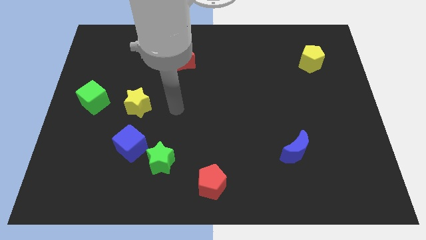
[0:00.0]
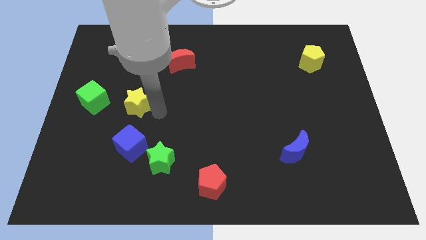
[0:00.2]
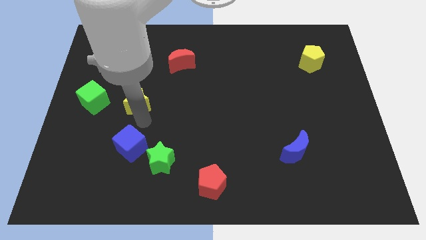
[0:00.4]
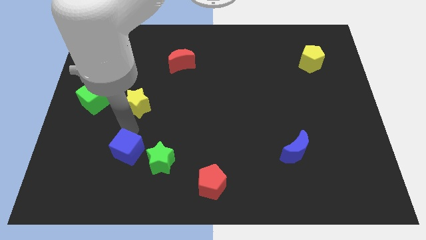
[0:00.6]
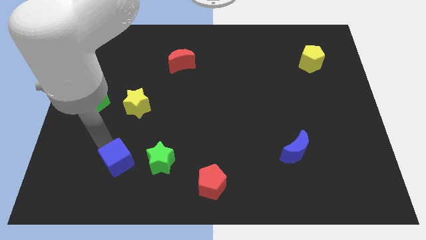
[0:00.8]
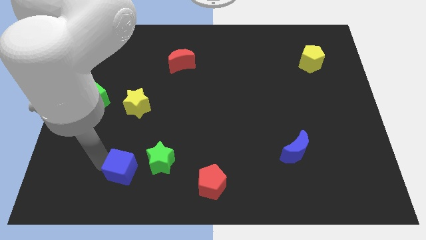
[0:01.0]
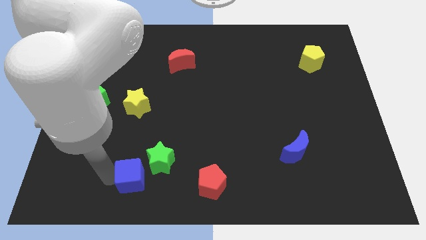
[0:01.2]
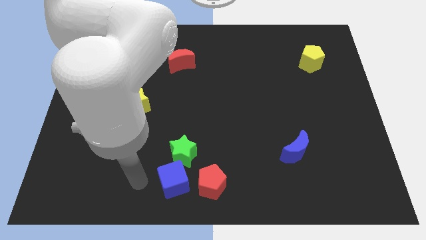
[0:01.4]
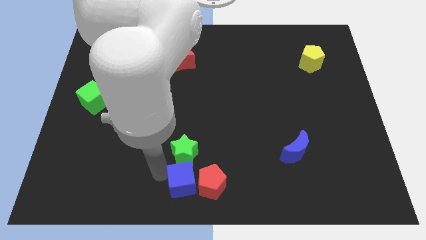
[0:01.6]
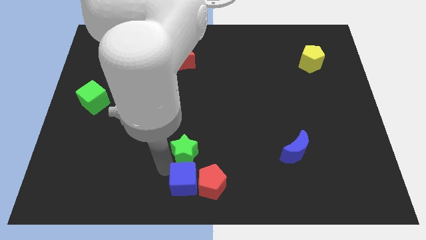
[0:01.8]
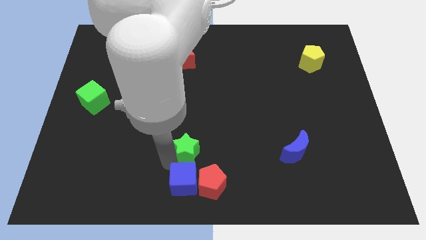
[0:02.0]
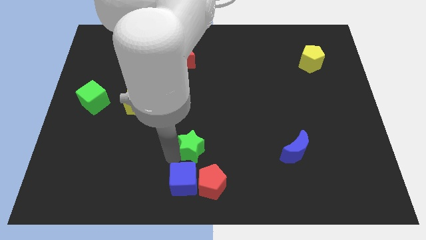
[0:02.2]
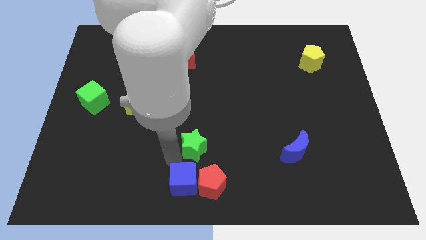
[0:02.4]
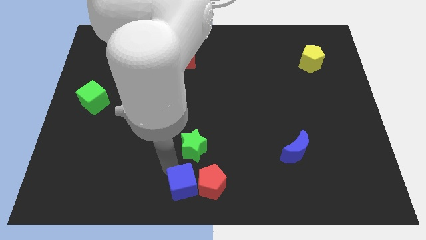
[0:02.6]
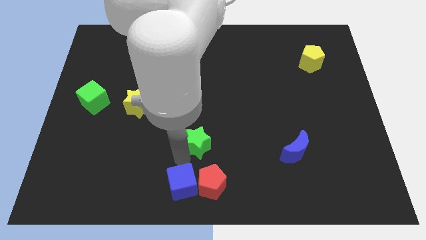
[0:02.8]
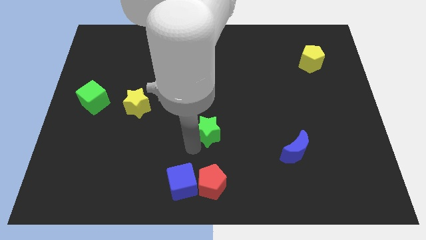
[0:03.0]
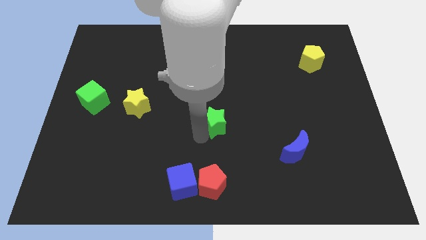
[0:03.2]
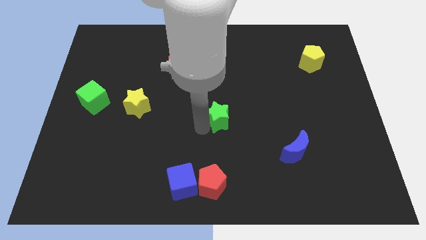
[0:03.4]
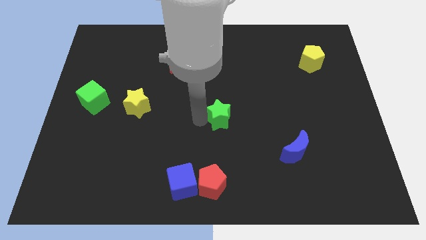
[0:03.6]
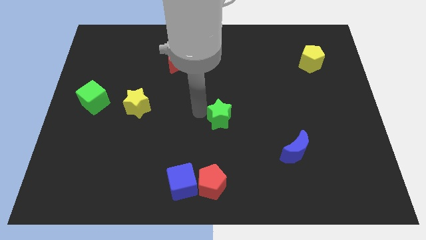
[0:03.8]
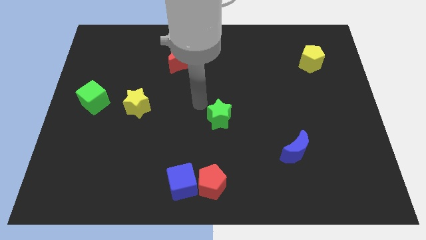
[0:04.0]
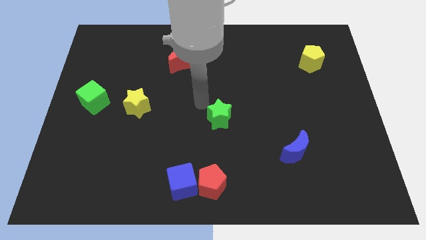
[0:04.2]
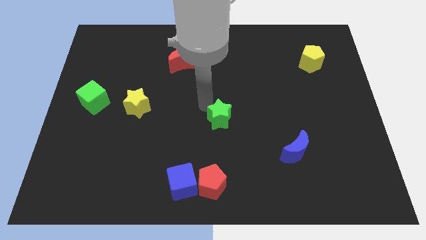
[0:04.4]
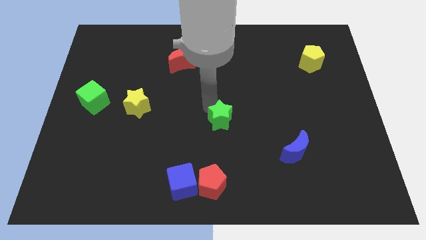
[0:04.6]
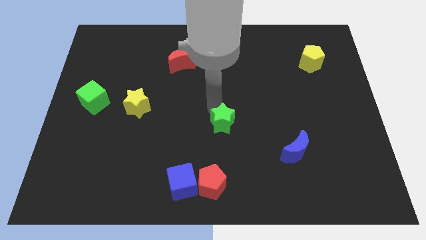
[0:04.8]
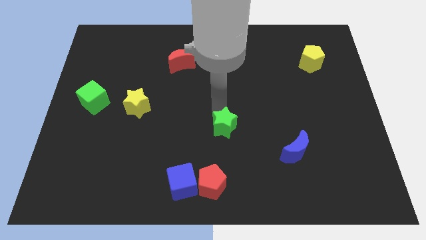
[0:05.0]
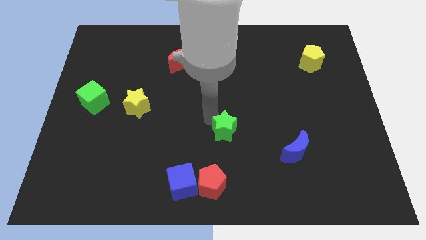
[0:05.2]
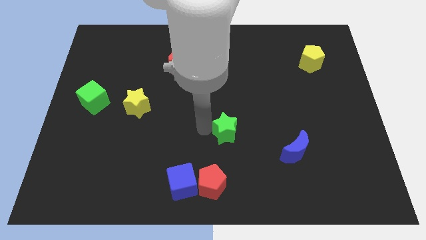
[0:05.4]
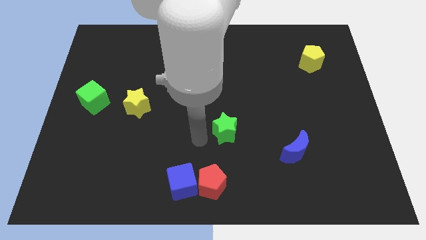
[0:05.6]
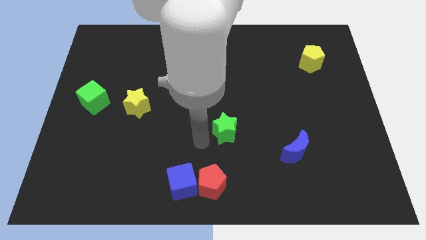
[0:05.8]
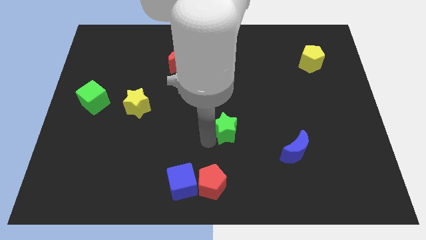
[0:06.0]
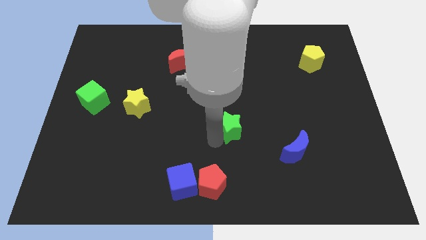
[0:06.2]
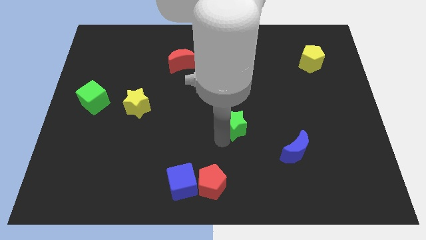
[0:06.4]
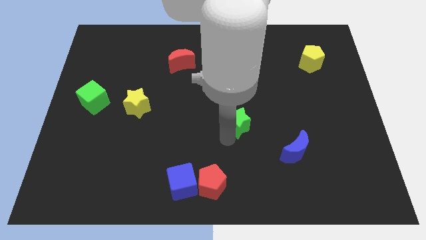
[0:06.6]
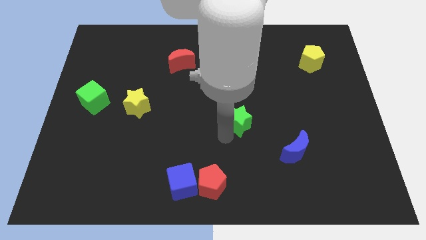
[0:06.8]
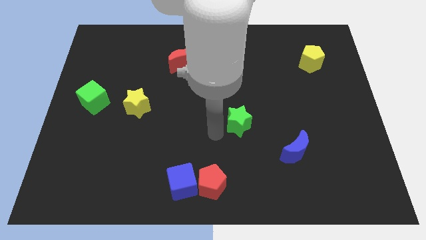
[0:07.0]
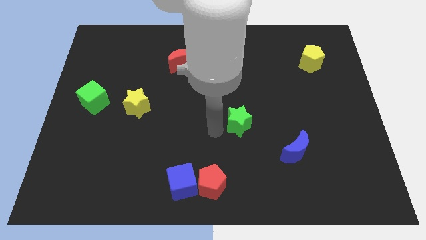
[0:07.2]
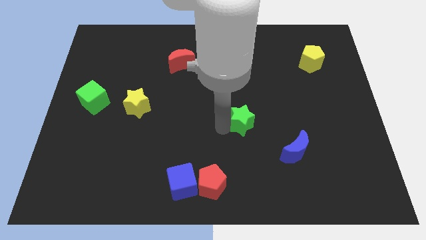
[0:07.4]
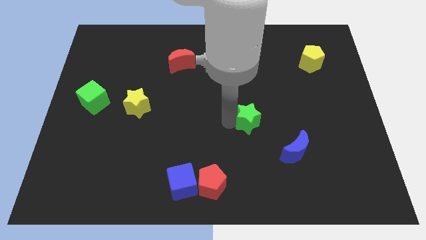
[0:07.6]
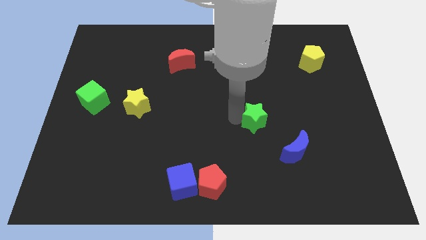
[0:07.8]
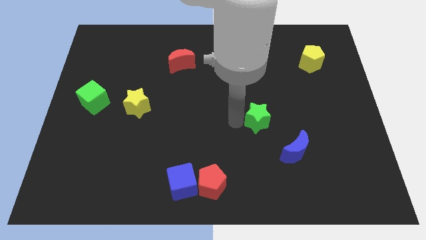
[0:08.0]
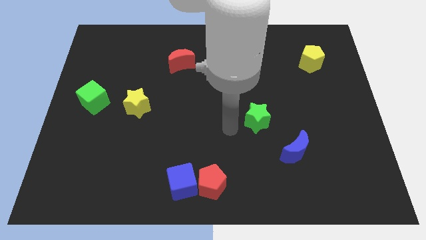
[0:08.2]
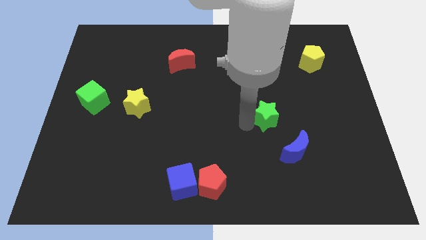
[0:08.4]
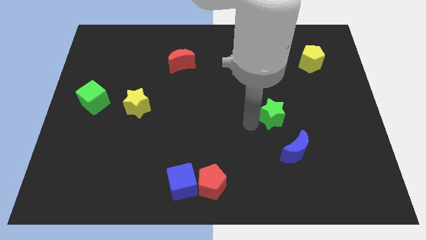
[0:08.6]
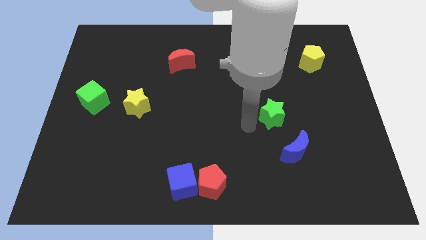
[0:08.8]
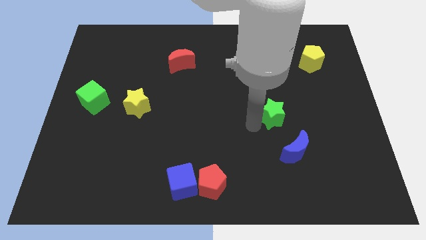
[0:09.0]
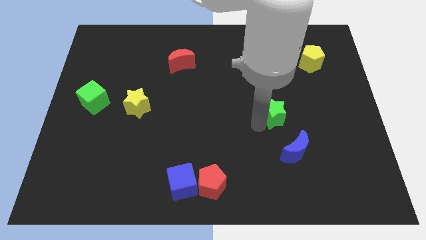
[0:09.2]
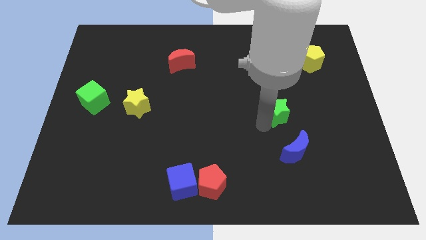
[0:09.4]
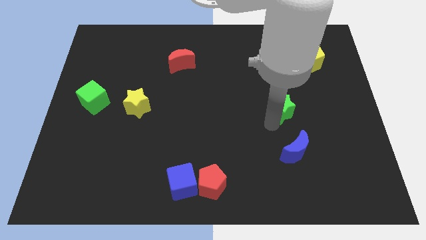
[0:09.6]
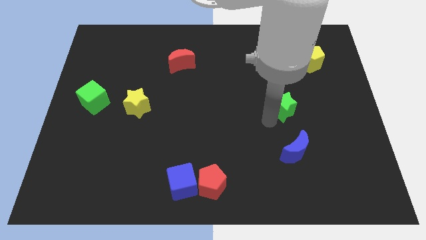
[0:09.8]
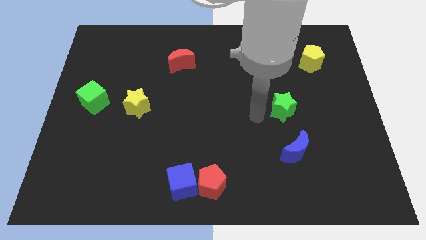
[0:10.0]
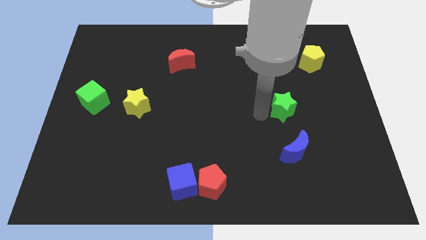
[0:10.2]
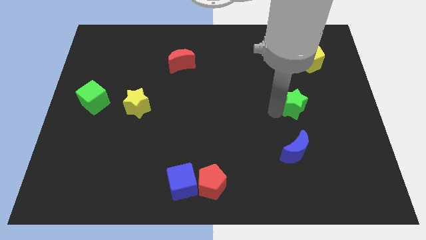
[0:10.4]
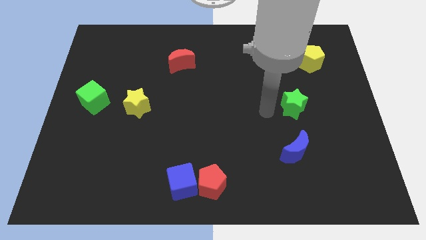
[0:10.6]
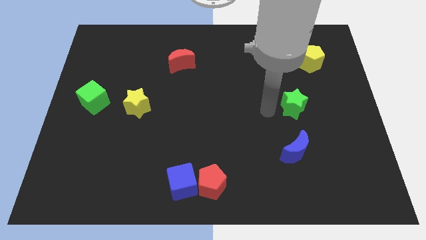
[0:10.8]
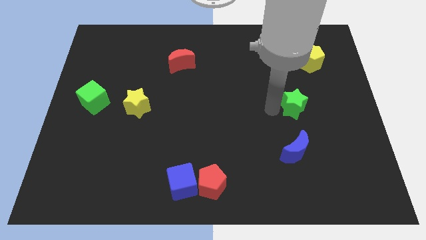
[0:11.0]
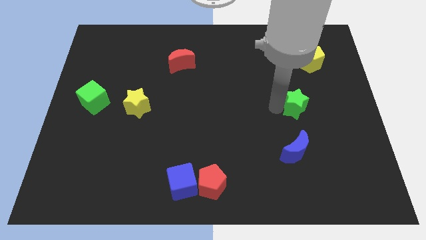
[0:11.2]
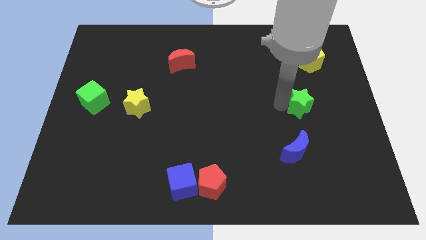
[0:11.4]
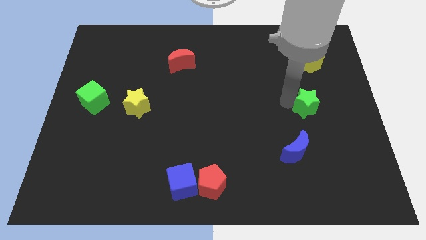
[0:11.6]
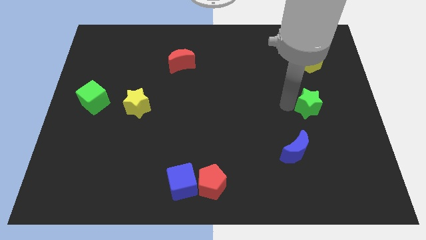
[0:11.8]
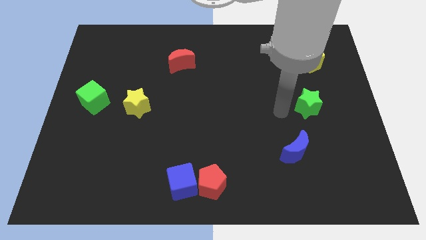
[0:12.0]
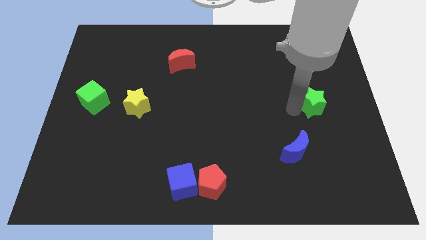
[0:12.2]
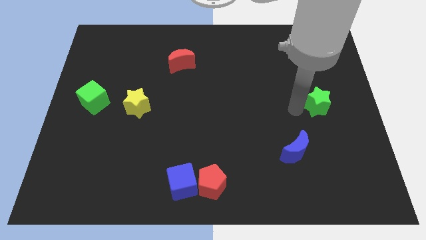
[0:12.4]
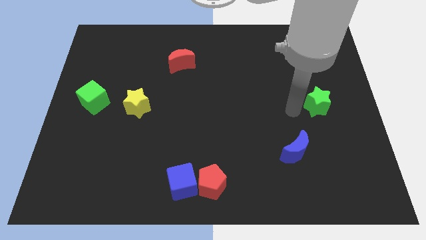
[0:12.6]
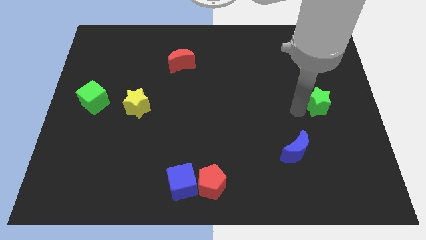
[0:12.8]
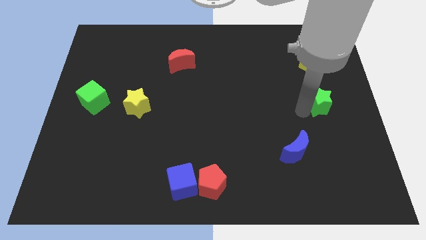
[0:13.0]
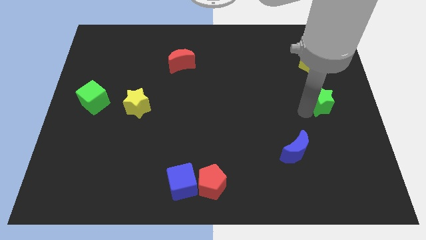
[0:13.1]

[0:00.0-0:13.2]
move the green star to the right side of the board

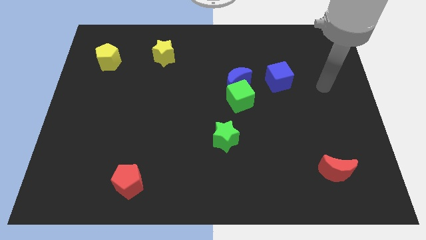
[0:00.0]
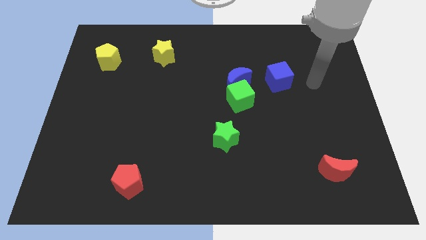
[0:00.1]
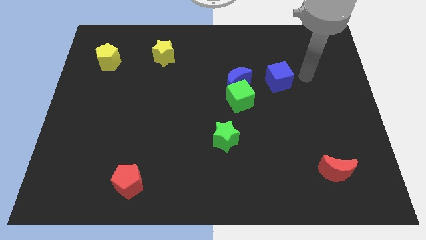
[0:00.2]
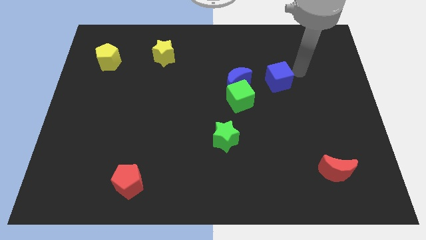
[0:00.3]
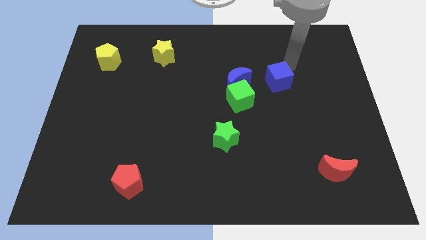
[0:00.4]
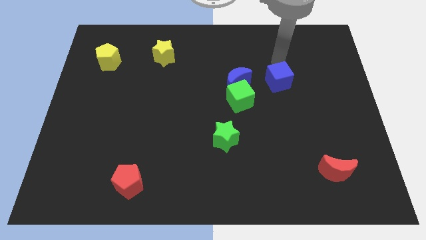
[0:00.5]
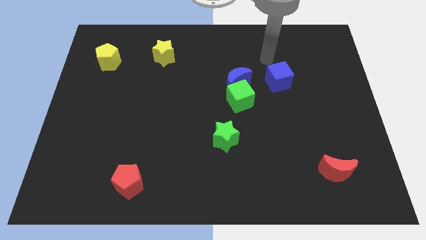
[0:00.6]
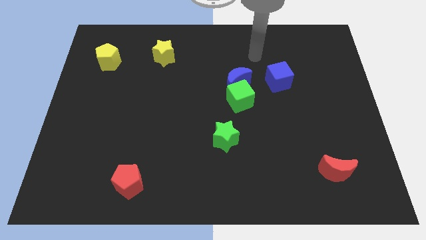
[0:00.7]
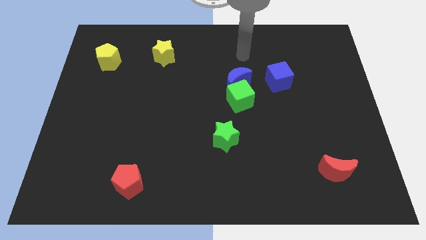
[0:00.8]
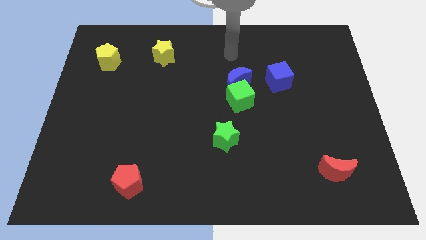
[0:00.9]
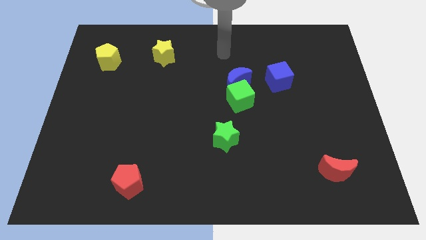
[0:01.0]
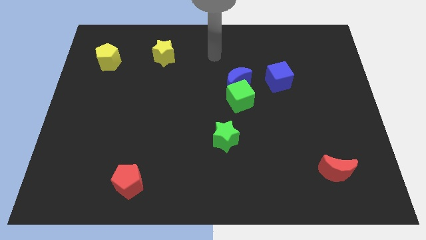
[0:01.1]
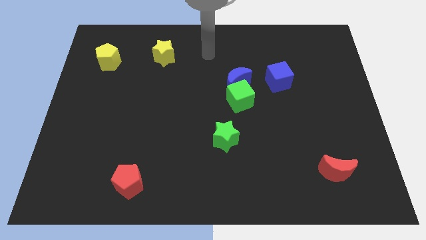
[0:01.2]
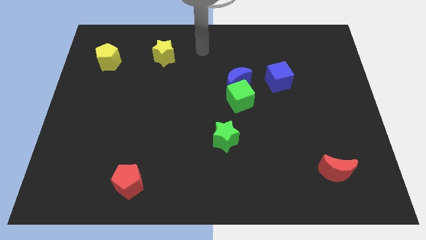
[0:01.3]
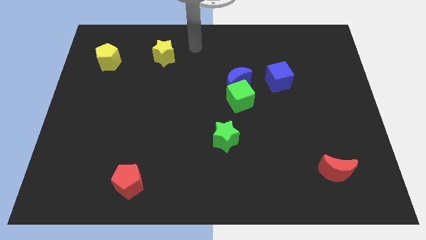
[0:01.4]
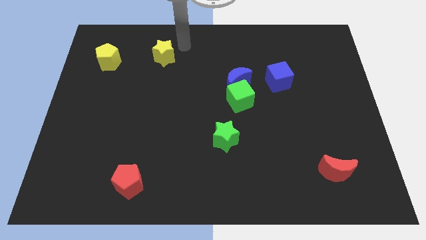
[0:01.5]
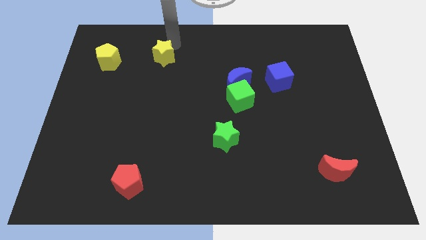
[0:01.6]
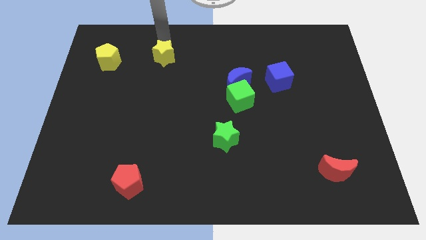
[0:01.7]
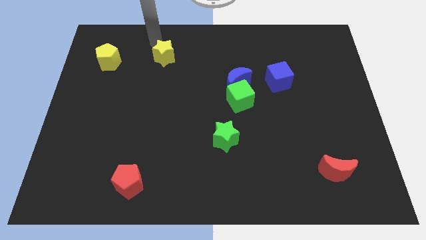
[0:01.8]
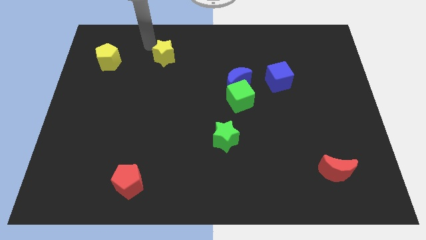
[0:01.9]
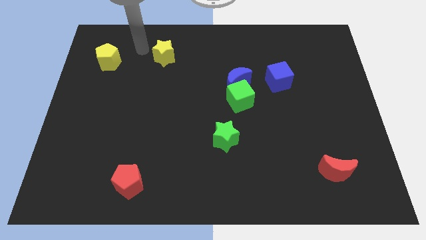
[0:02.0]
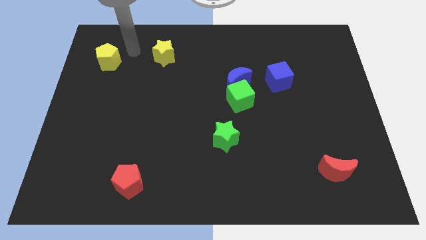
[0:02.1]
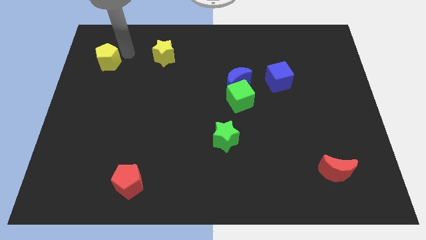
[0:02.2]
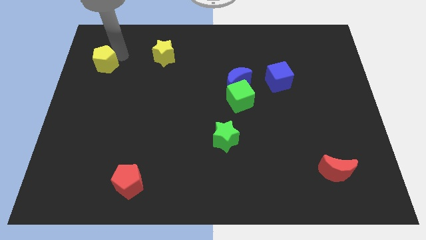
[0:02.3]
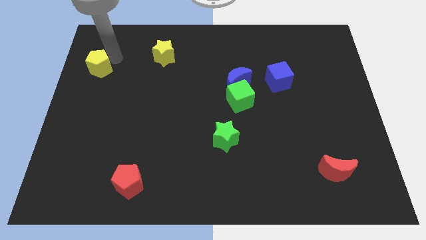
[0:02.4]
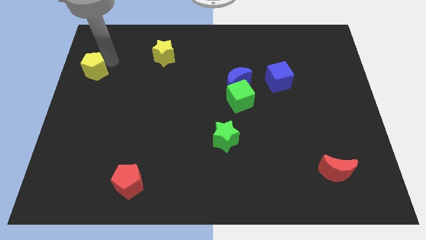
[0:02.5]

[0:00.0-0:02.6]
push the yellow pentagon to the center left
